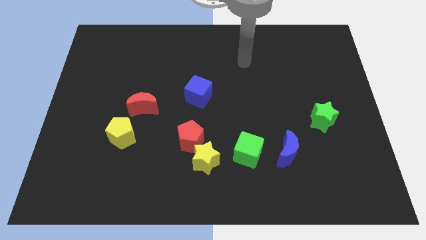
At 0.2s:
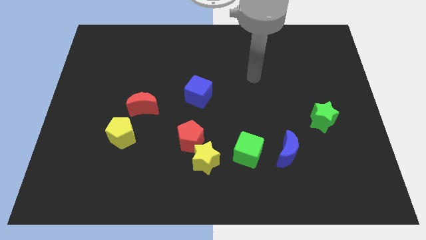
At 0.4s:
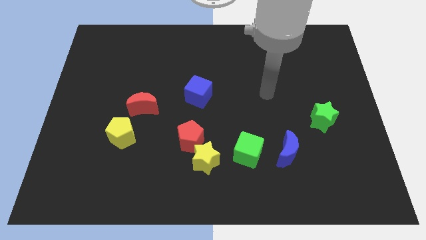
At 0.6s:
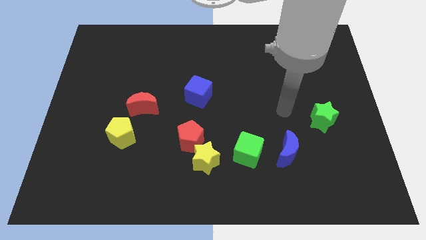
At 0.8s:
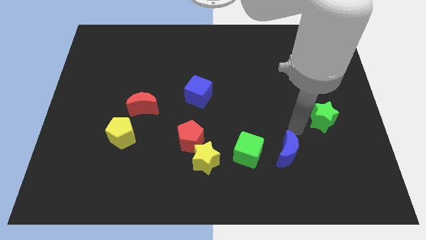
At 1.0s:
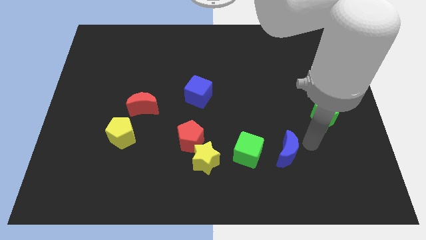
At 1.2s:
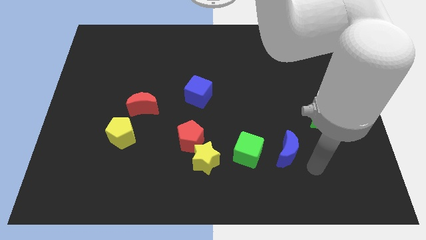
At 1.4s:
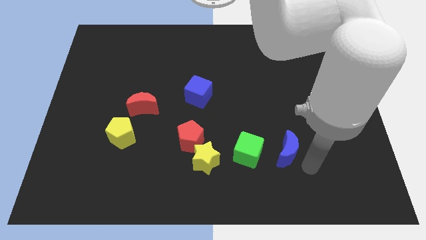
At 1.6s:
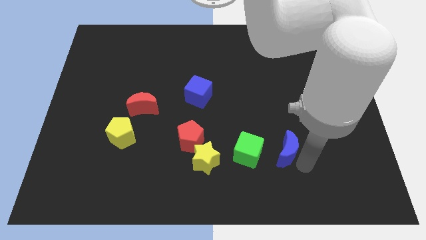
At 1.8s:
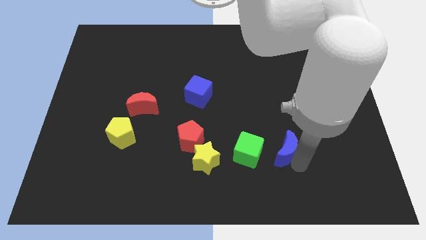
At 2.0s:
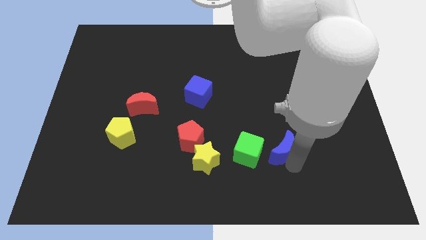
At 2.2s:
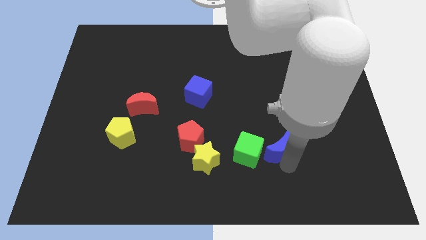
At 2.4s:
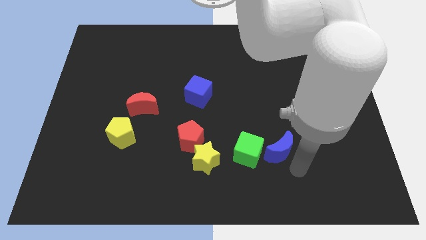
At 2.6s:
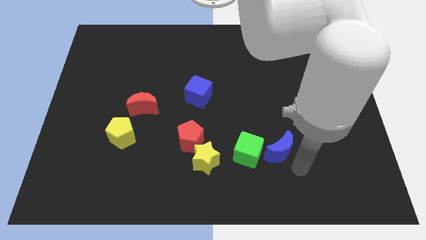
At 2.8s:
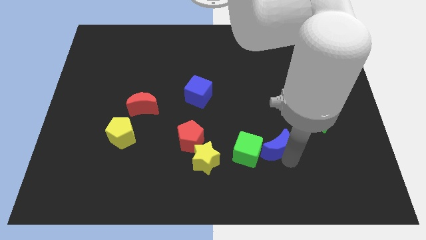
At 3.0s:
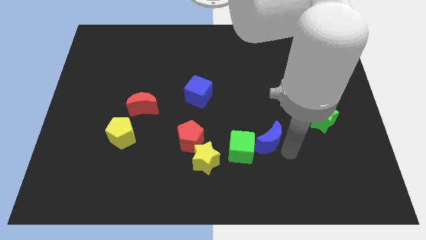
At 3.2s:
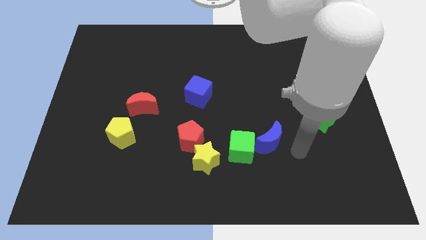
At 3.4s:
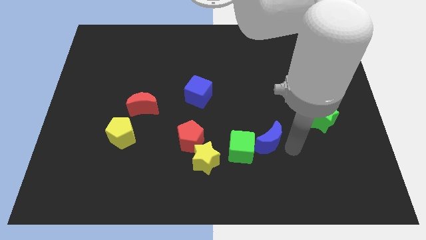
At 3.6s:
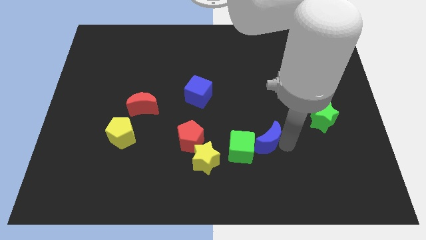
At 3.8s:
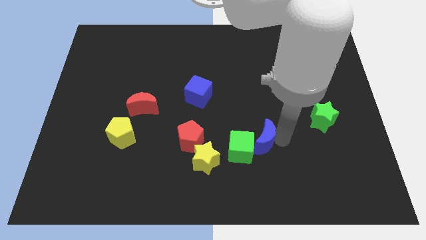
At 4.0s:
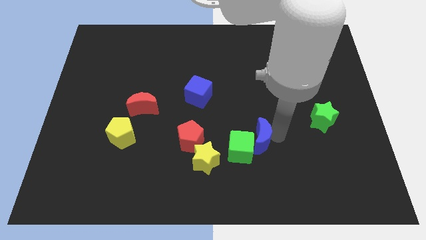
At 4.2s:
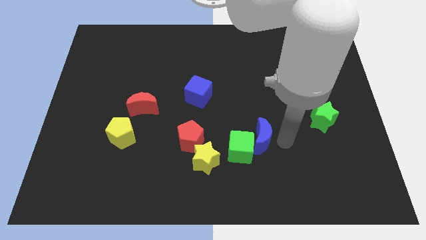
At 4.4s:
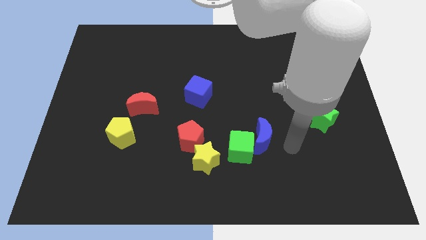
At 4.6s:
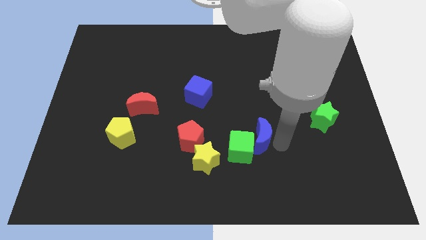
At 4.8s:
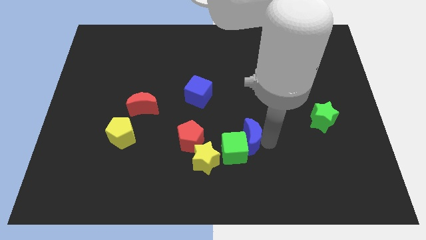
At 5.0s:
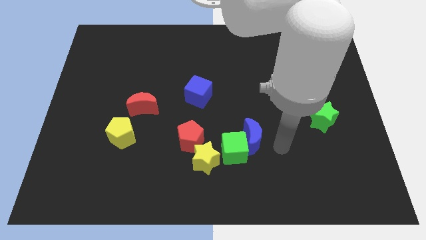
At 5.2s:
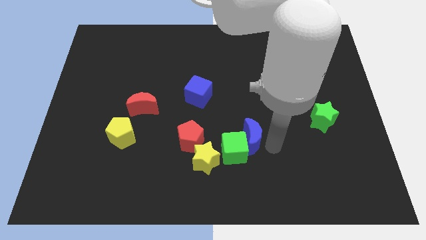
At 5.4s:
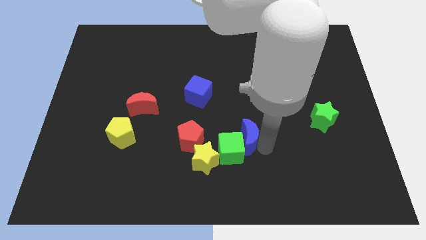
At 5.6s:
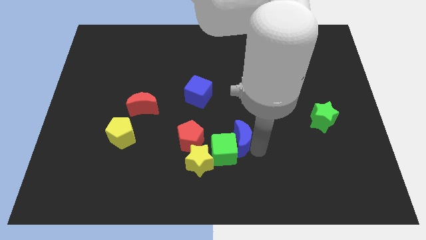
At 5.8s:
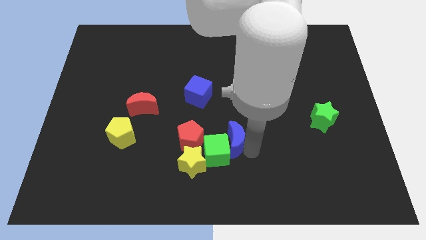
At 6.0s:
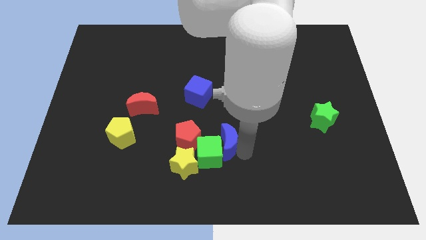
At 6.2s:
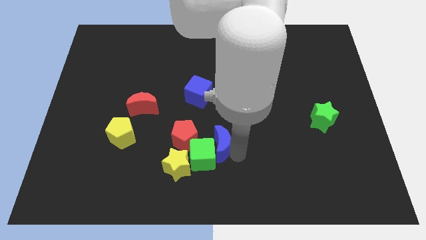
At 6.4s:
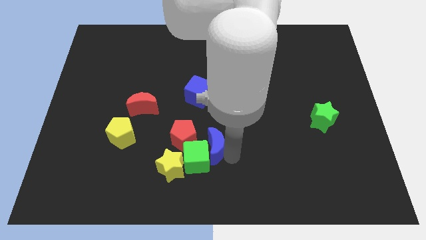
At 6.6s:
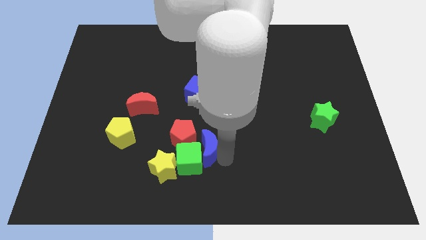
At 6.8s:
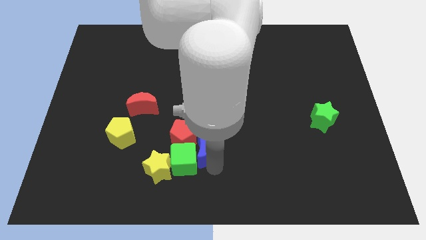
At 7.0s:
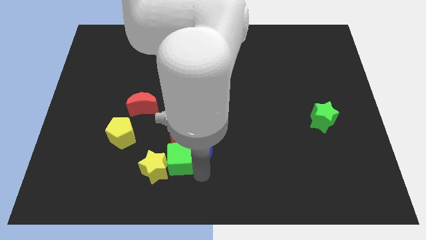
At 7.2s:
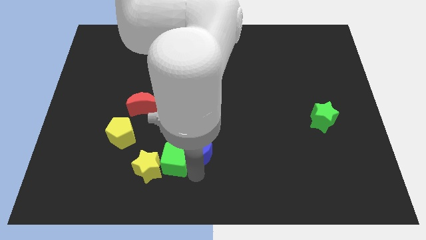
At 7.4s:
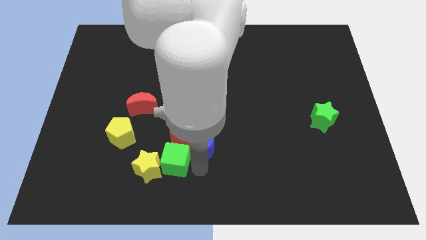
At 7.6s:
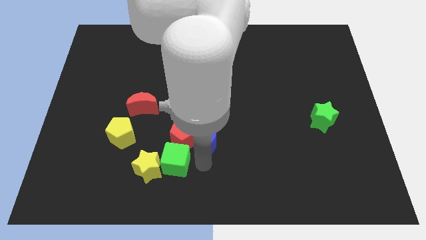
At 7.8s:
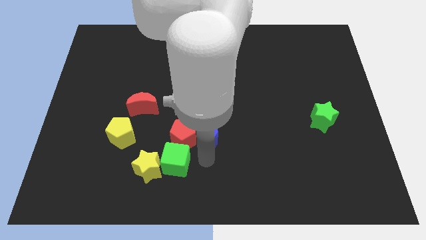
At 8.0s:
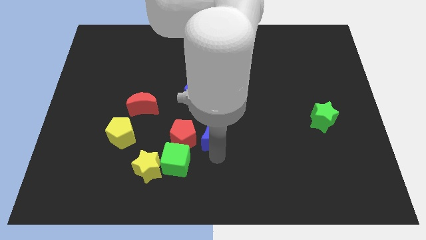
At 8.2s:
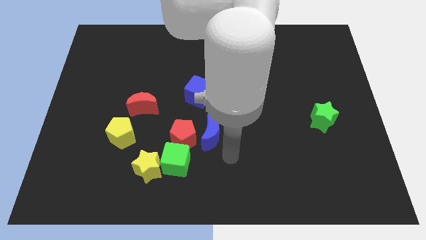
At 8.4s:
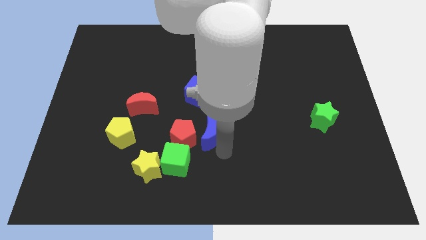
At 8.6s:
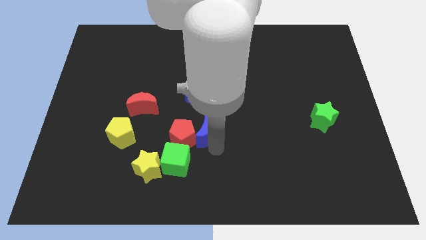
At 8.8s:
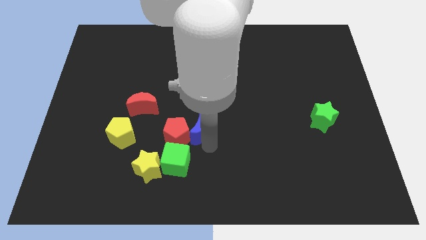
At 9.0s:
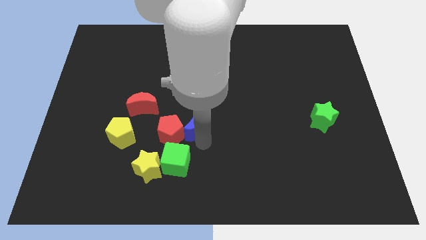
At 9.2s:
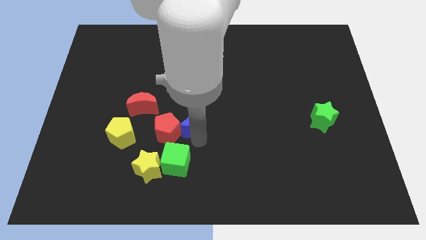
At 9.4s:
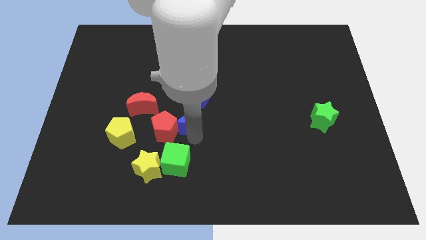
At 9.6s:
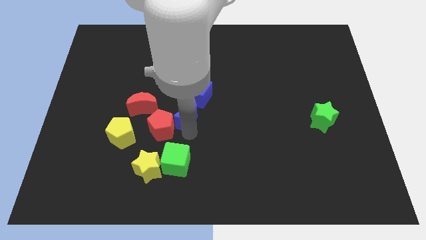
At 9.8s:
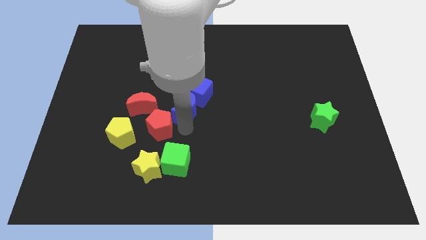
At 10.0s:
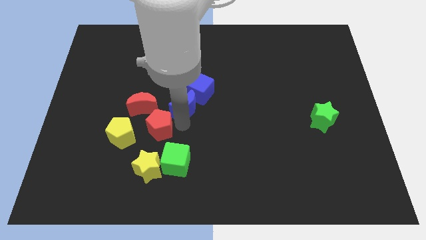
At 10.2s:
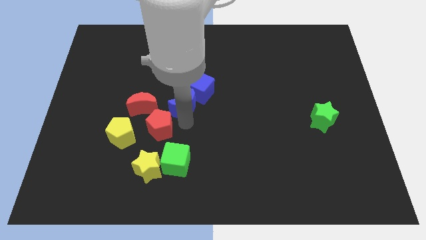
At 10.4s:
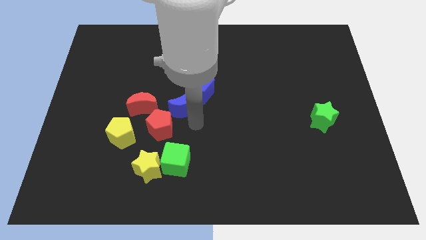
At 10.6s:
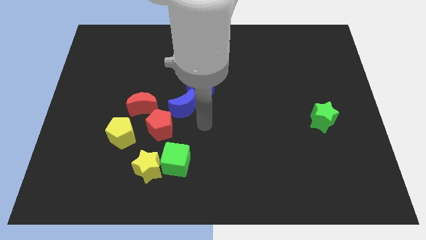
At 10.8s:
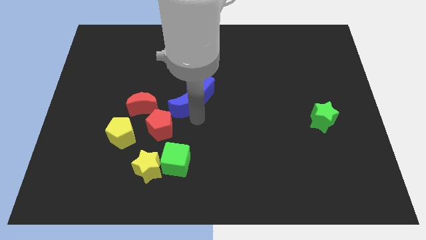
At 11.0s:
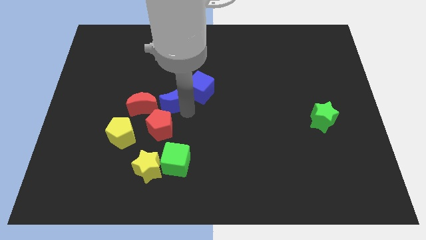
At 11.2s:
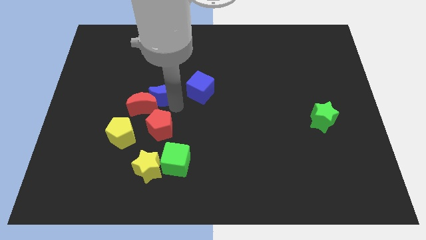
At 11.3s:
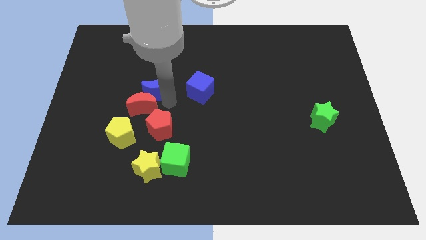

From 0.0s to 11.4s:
slide the blue moon to the top side of the red moon

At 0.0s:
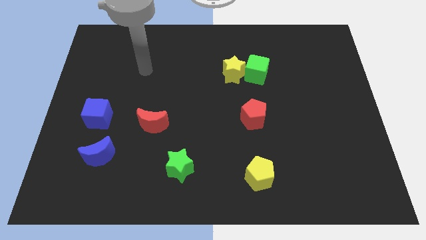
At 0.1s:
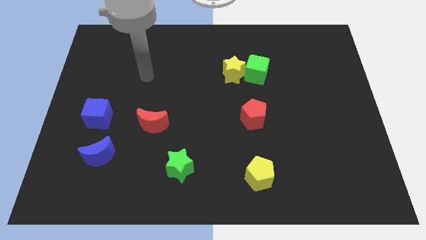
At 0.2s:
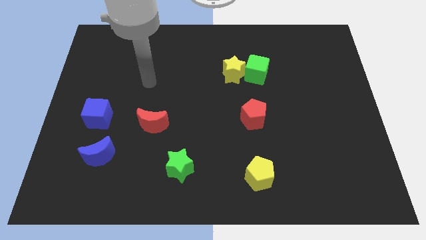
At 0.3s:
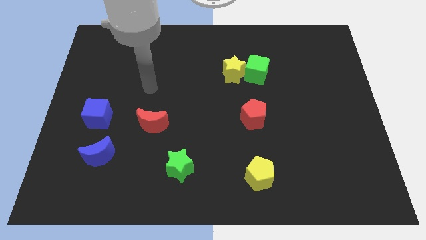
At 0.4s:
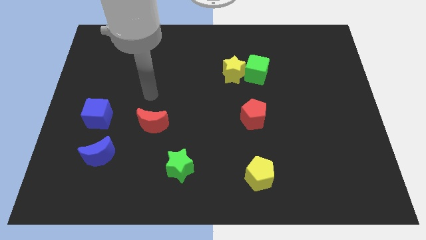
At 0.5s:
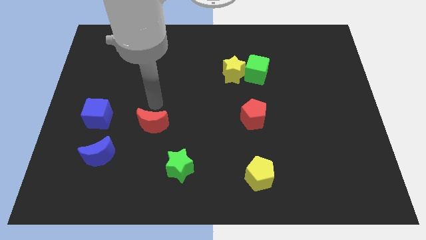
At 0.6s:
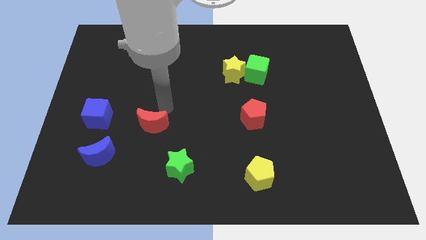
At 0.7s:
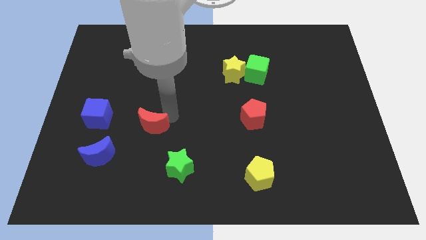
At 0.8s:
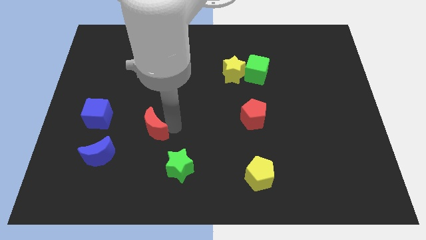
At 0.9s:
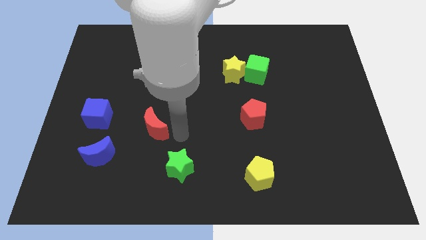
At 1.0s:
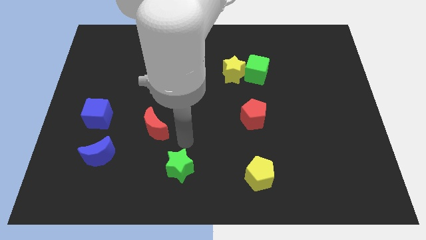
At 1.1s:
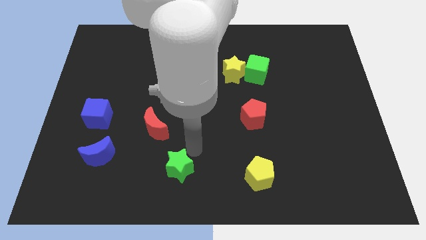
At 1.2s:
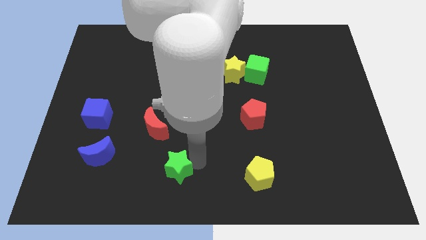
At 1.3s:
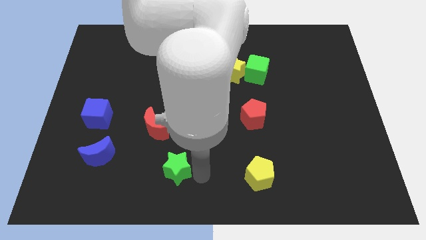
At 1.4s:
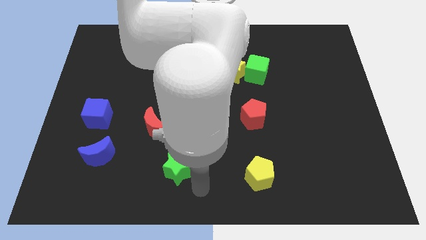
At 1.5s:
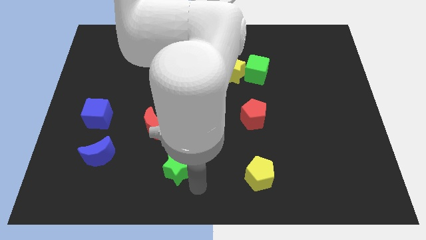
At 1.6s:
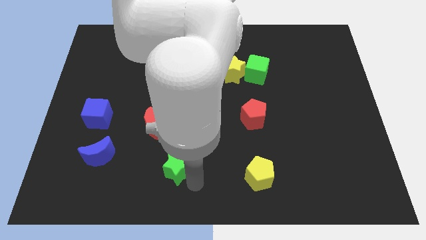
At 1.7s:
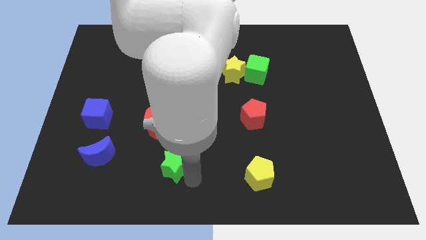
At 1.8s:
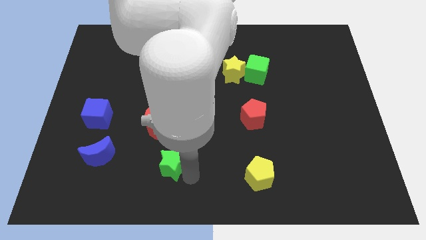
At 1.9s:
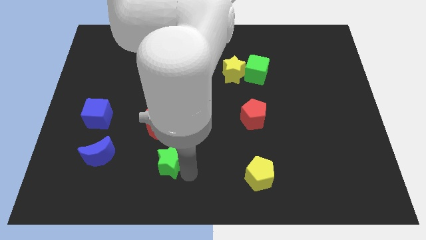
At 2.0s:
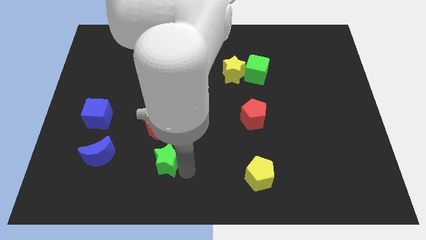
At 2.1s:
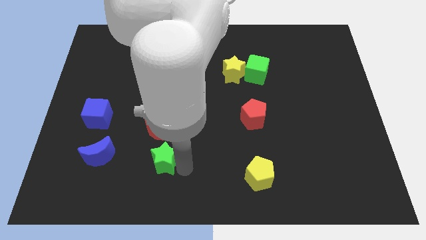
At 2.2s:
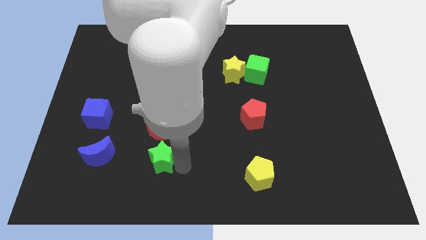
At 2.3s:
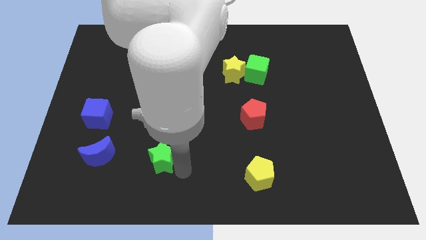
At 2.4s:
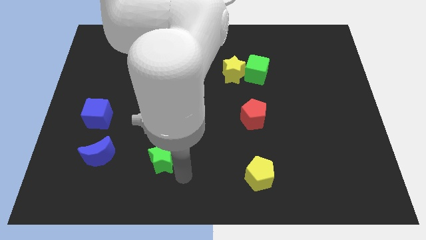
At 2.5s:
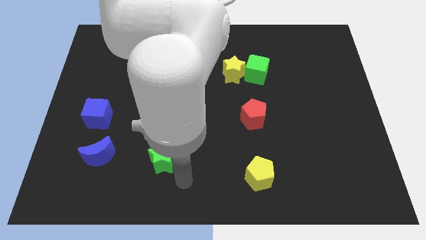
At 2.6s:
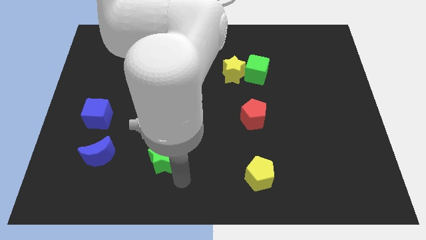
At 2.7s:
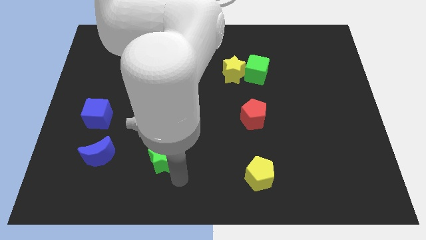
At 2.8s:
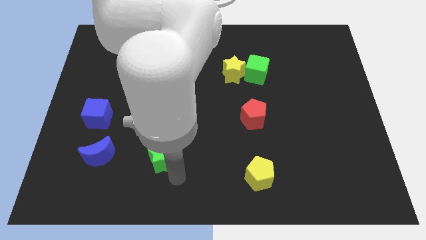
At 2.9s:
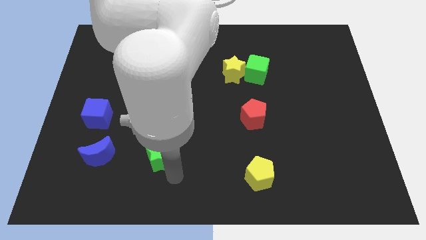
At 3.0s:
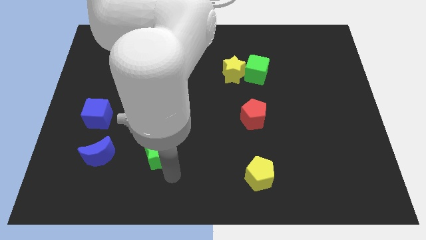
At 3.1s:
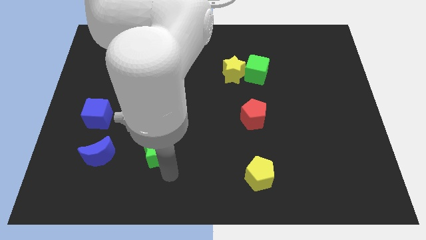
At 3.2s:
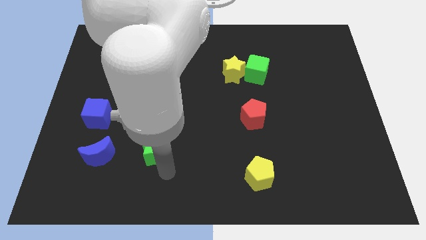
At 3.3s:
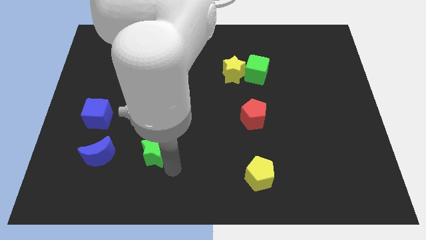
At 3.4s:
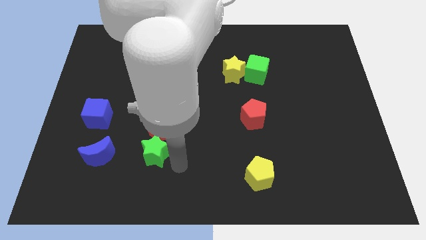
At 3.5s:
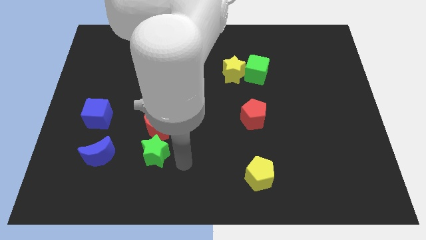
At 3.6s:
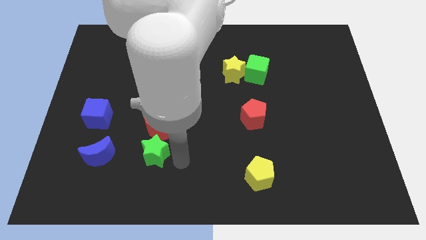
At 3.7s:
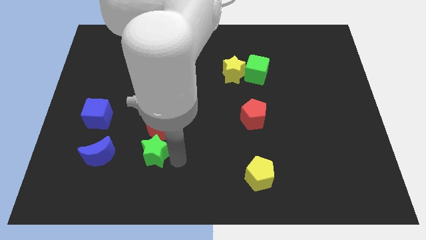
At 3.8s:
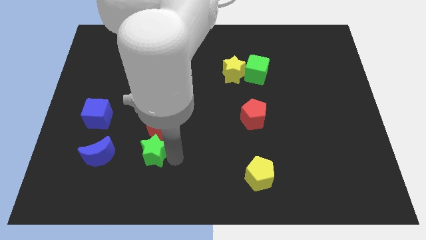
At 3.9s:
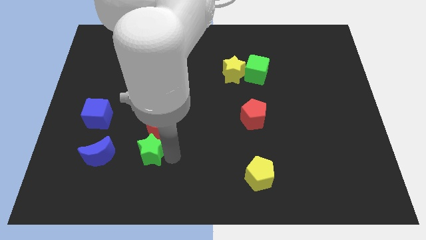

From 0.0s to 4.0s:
push the green star diagonally down and to the left of the red moon
